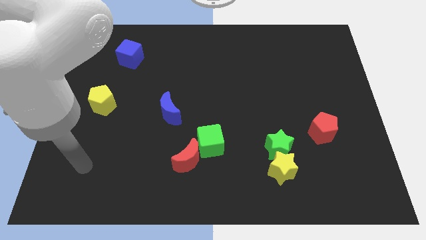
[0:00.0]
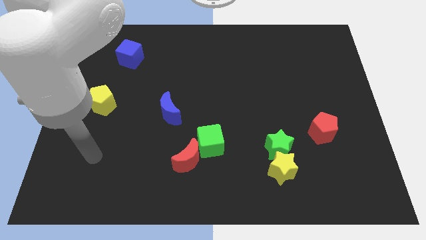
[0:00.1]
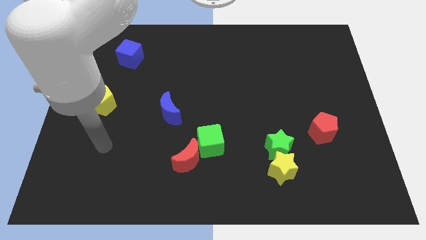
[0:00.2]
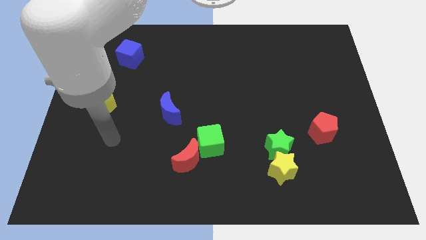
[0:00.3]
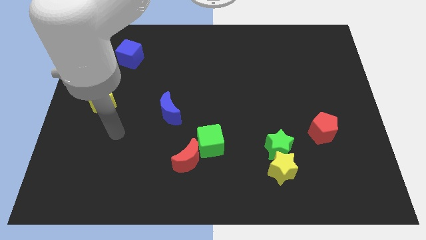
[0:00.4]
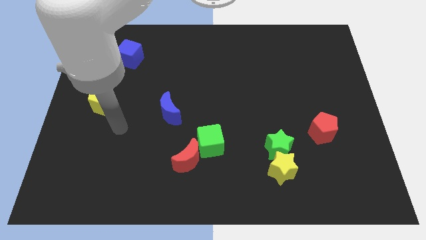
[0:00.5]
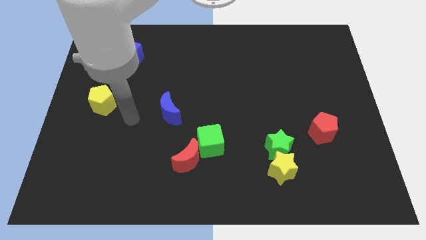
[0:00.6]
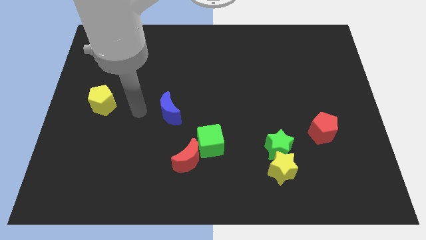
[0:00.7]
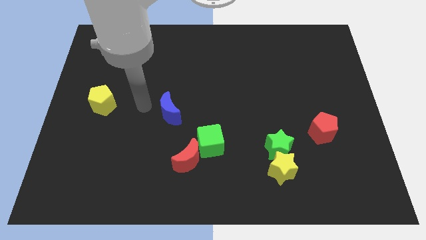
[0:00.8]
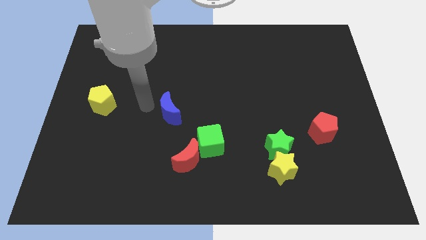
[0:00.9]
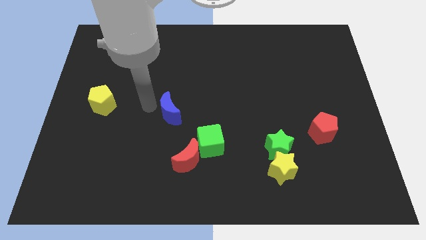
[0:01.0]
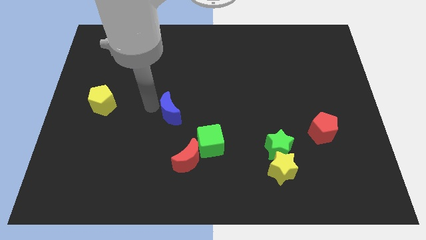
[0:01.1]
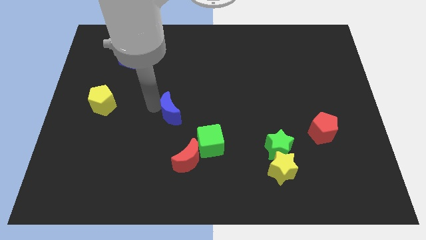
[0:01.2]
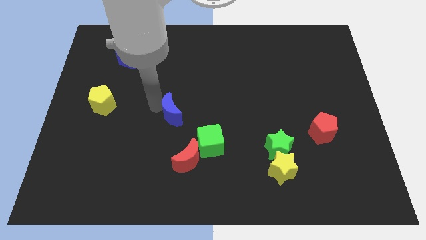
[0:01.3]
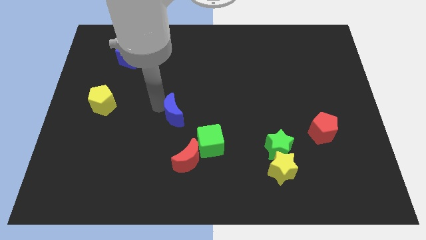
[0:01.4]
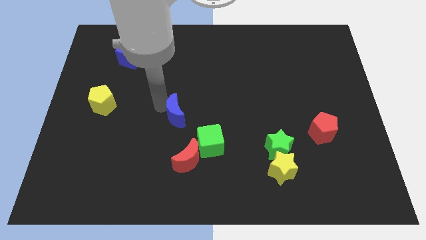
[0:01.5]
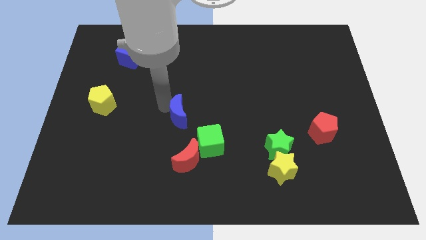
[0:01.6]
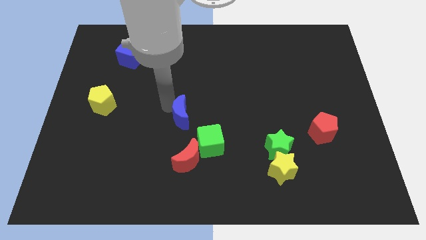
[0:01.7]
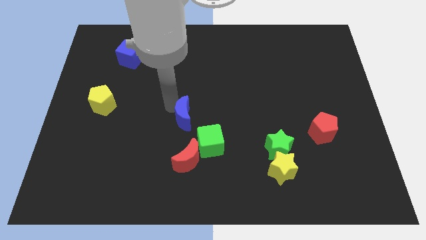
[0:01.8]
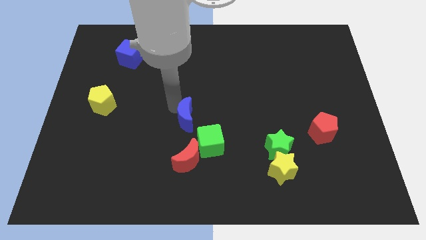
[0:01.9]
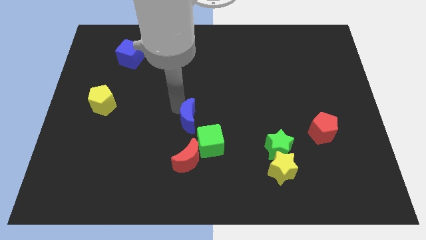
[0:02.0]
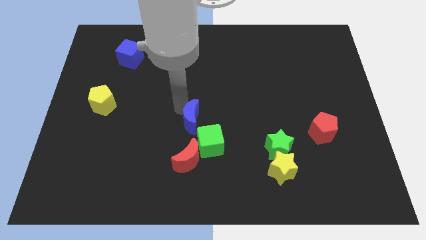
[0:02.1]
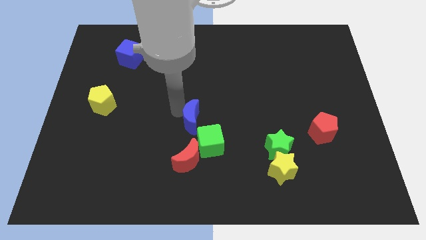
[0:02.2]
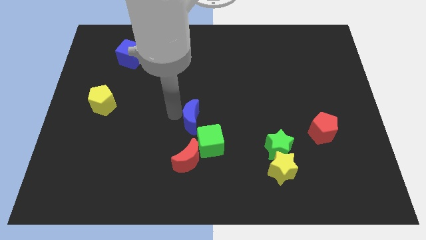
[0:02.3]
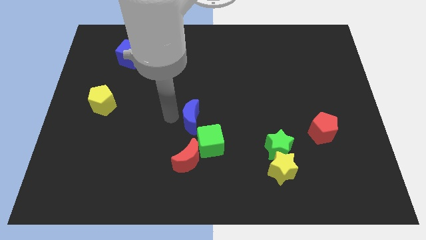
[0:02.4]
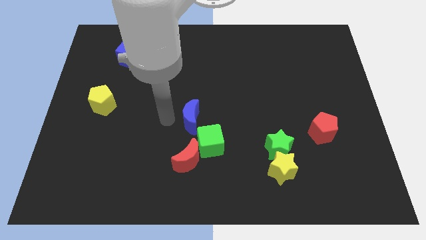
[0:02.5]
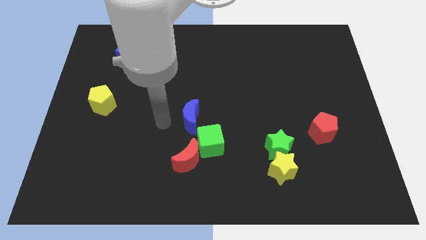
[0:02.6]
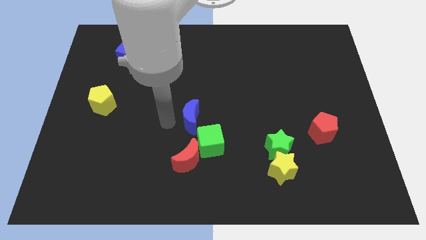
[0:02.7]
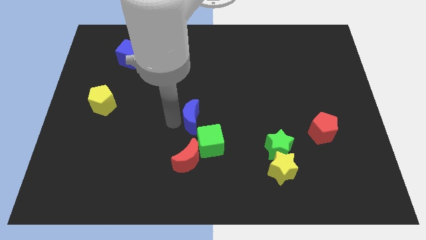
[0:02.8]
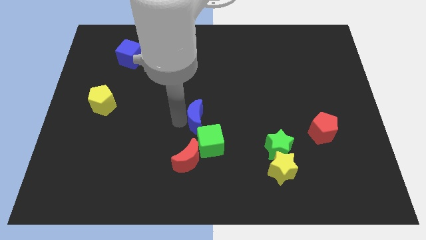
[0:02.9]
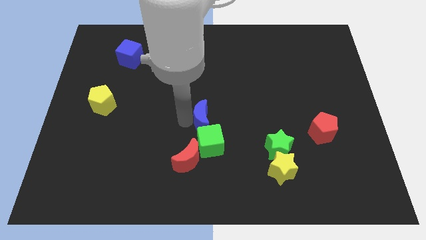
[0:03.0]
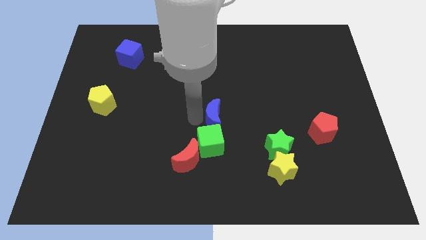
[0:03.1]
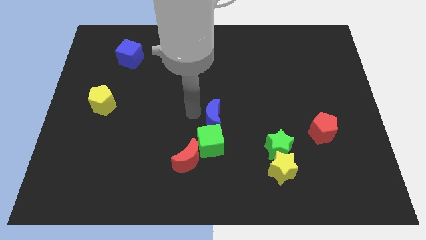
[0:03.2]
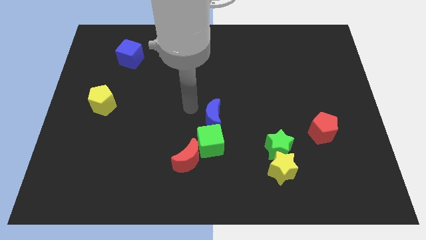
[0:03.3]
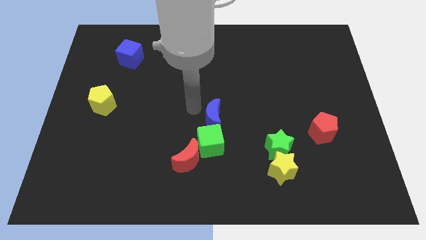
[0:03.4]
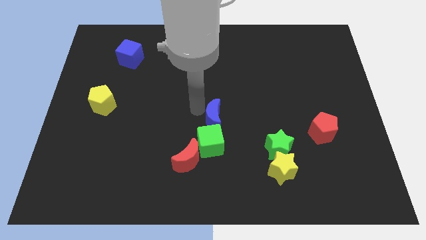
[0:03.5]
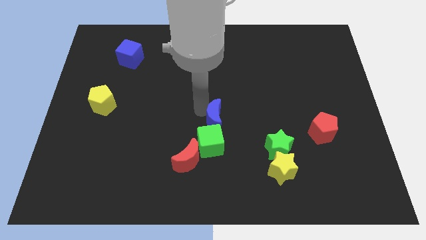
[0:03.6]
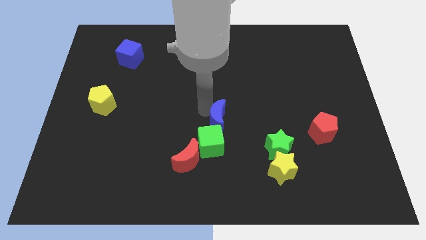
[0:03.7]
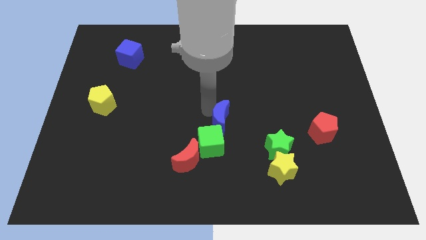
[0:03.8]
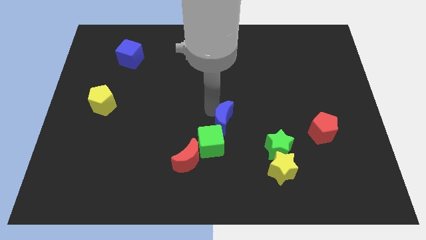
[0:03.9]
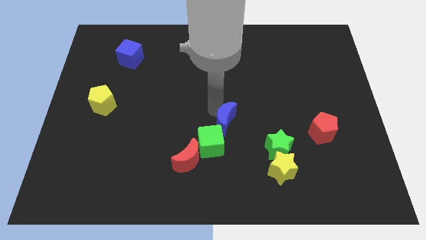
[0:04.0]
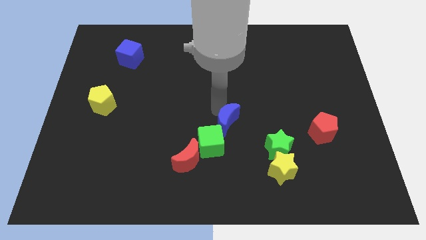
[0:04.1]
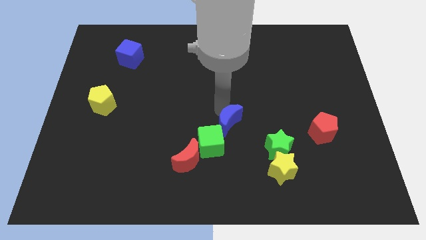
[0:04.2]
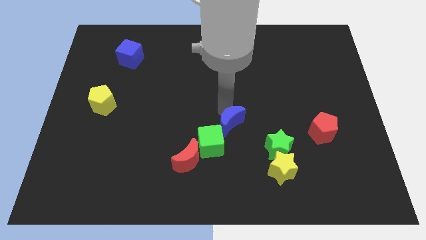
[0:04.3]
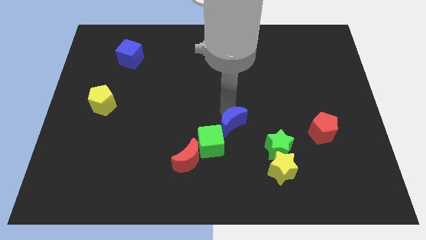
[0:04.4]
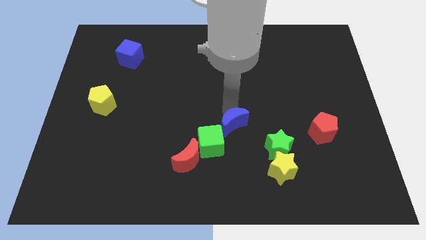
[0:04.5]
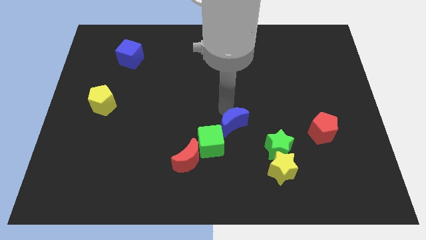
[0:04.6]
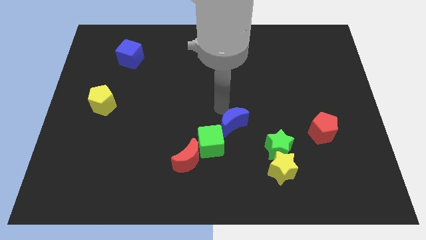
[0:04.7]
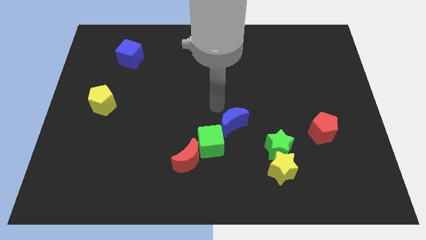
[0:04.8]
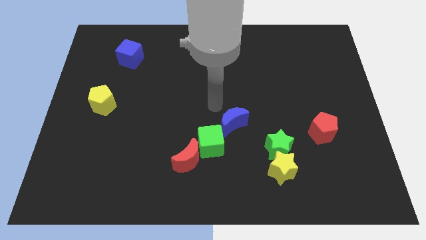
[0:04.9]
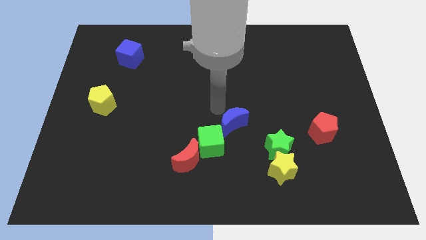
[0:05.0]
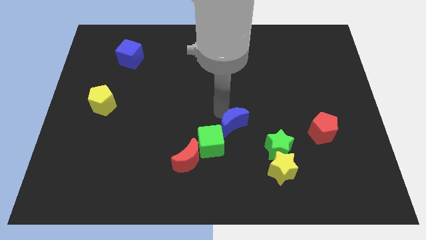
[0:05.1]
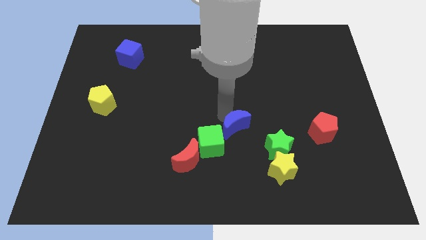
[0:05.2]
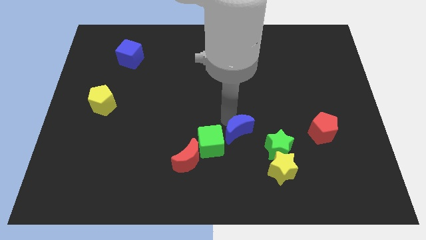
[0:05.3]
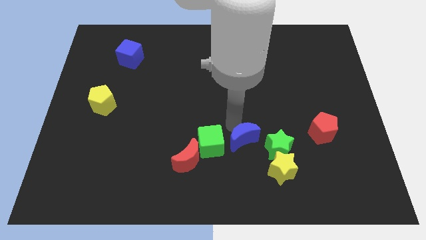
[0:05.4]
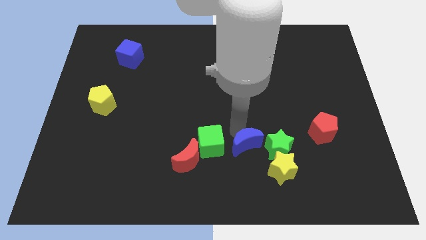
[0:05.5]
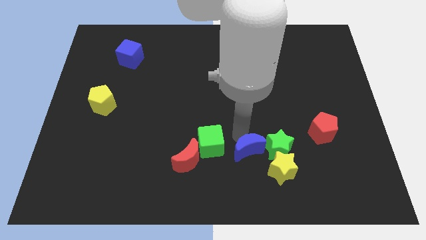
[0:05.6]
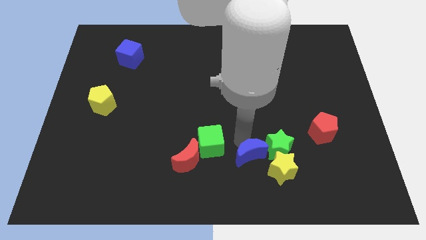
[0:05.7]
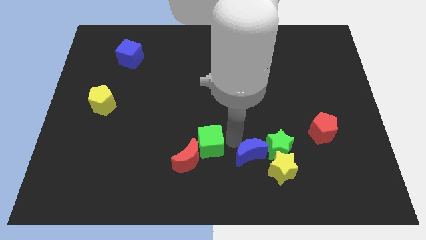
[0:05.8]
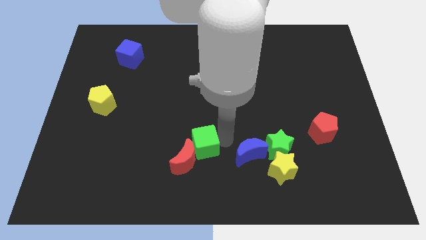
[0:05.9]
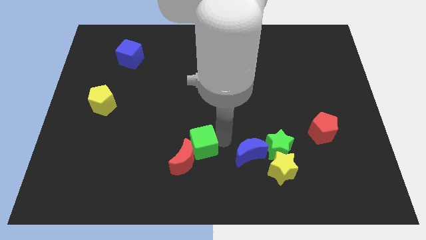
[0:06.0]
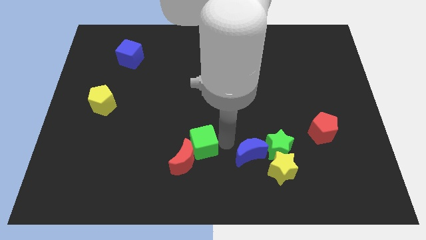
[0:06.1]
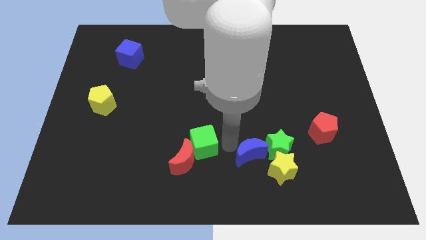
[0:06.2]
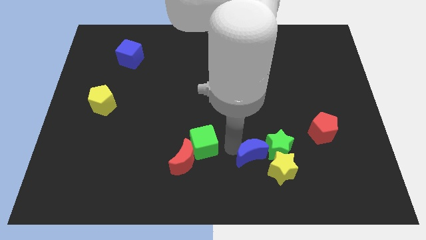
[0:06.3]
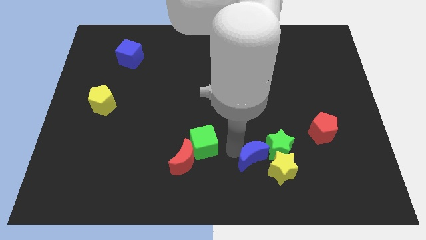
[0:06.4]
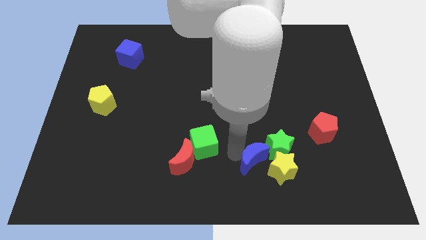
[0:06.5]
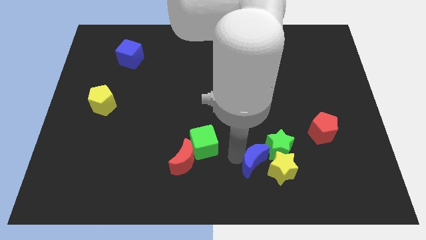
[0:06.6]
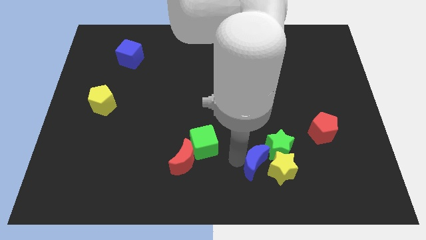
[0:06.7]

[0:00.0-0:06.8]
slide the blue moon towards the yellow star
